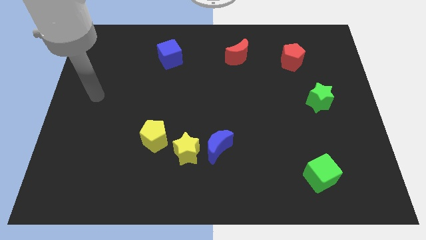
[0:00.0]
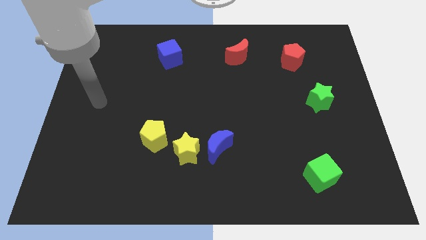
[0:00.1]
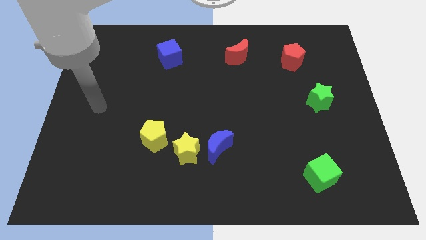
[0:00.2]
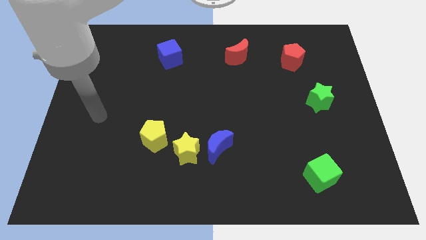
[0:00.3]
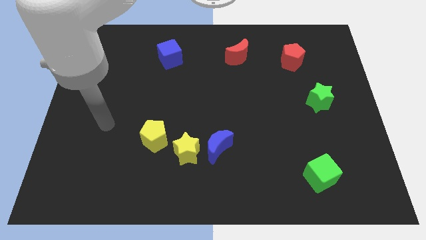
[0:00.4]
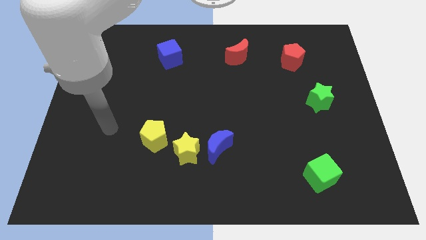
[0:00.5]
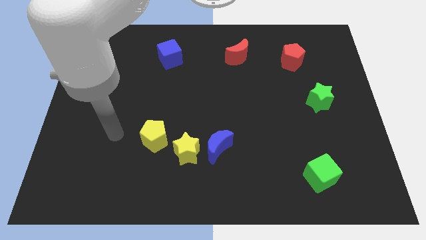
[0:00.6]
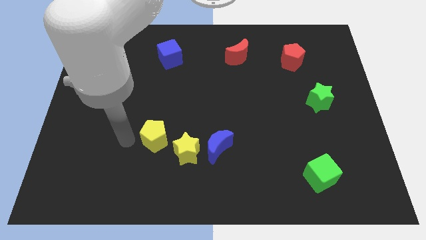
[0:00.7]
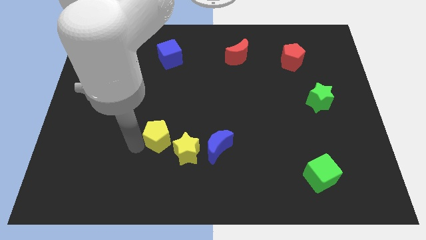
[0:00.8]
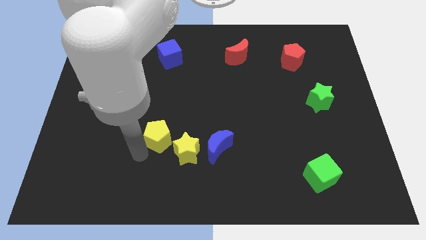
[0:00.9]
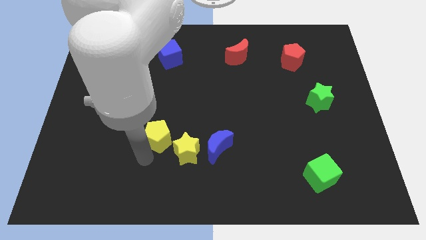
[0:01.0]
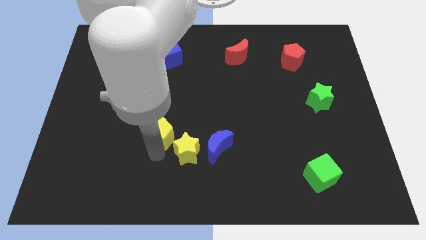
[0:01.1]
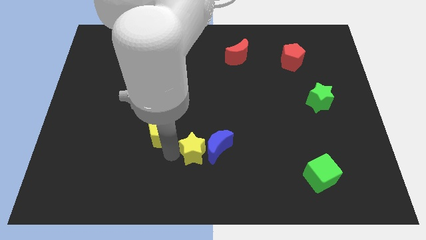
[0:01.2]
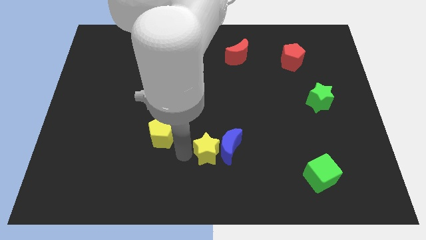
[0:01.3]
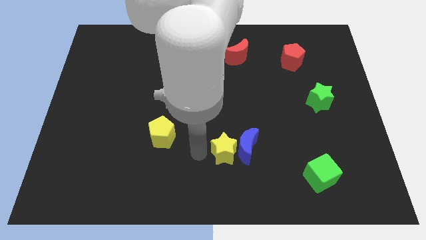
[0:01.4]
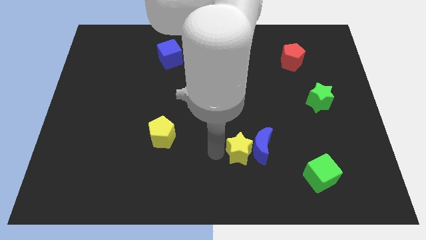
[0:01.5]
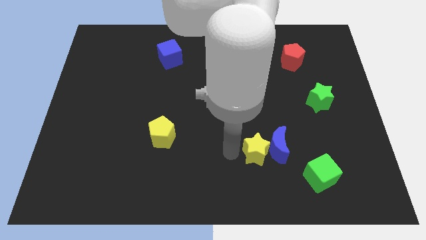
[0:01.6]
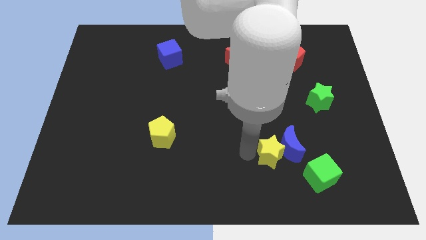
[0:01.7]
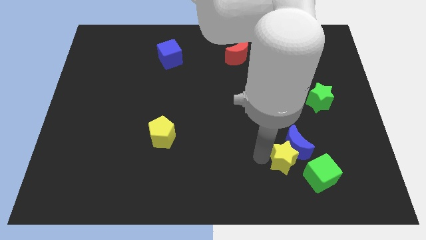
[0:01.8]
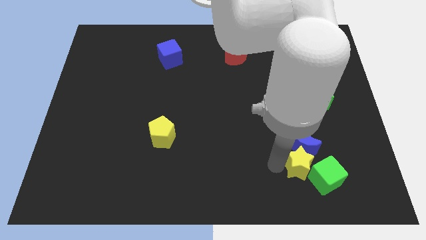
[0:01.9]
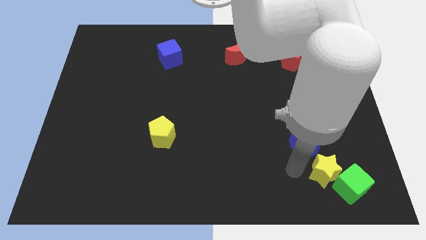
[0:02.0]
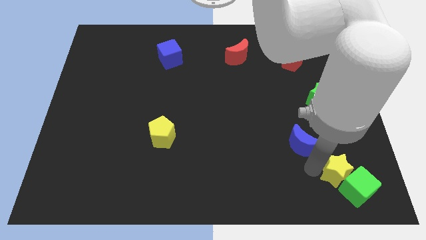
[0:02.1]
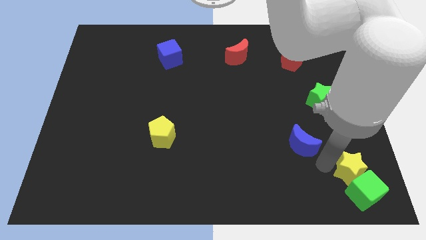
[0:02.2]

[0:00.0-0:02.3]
move the blue moon away from the yellow star

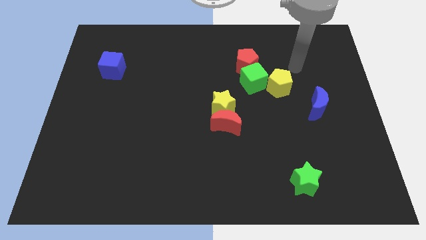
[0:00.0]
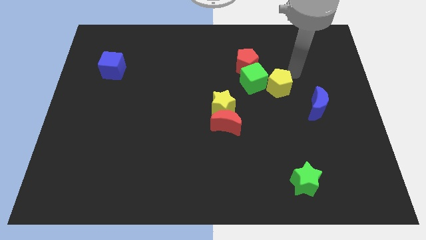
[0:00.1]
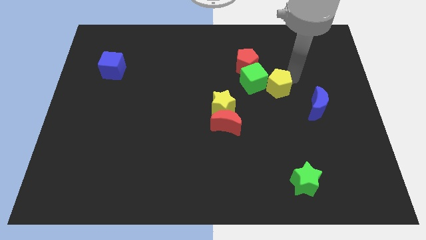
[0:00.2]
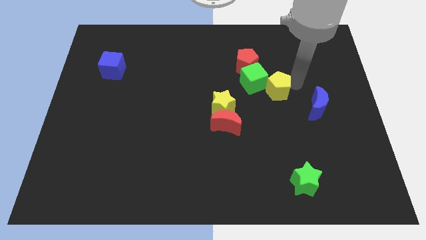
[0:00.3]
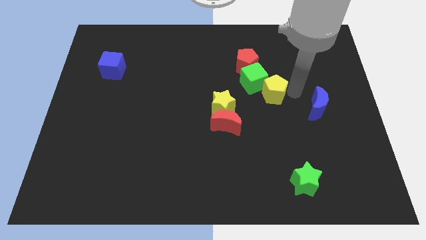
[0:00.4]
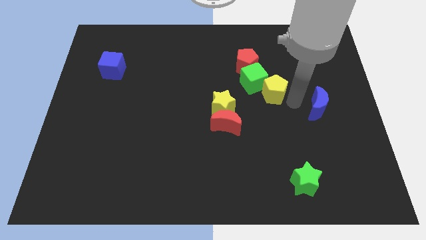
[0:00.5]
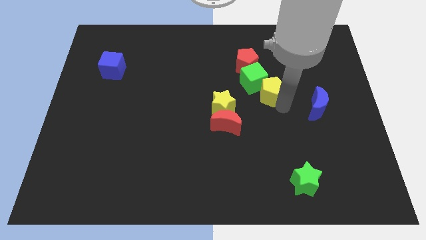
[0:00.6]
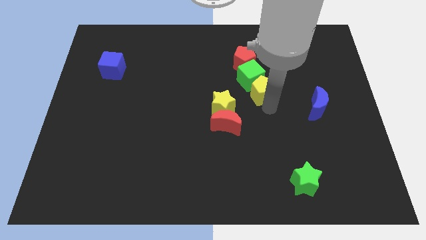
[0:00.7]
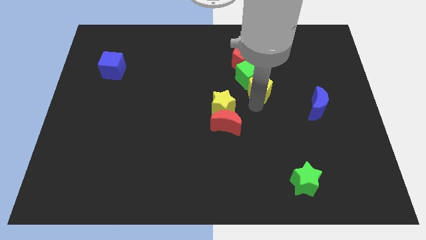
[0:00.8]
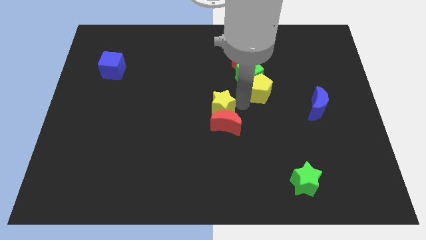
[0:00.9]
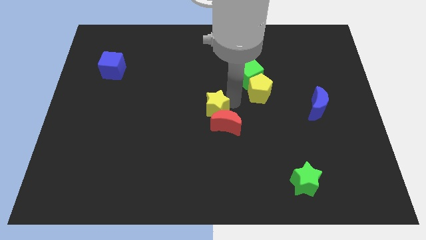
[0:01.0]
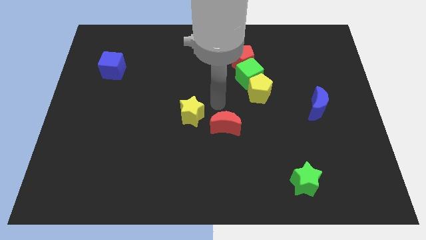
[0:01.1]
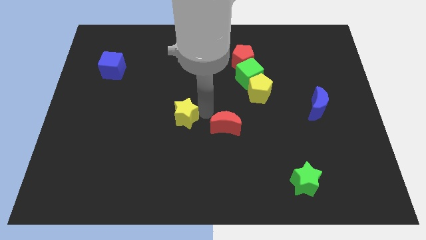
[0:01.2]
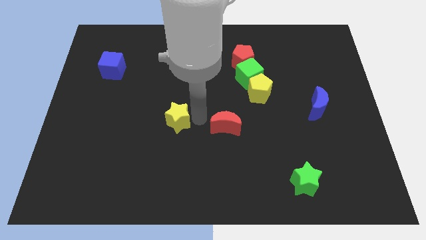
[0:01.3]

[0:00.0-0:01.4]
pull the red moon apart from the yellow star

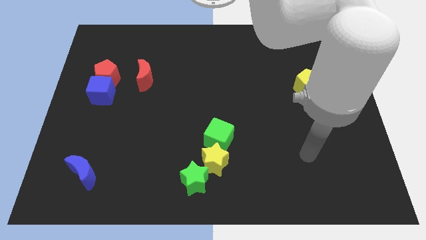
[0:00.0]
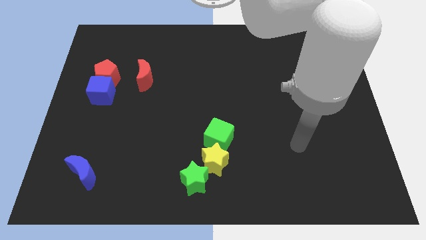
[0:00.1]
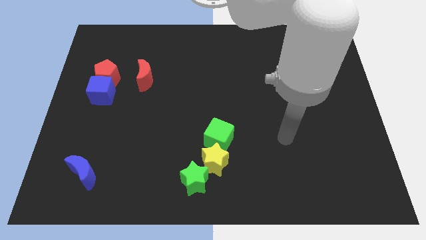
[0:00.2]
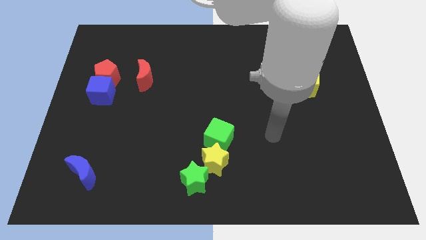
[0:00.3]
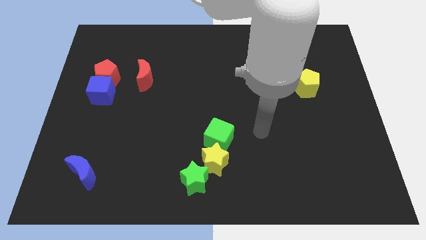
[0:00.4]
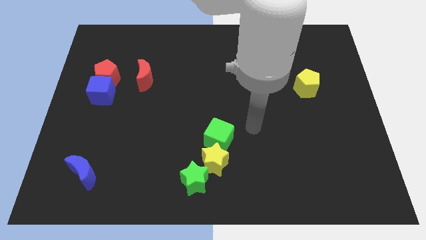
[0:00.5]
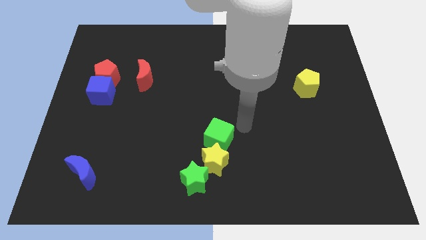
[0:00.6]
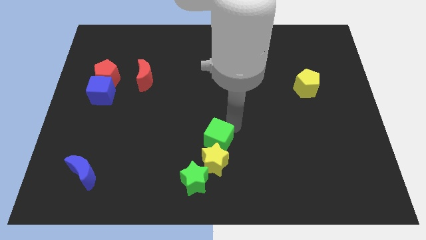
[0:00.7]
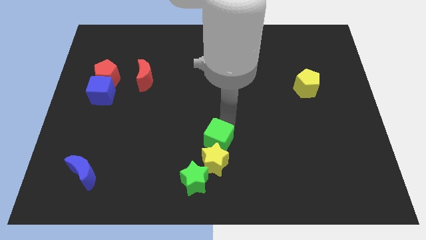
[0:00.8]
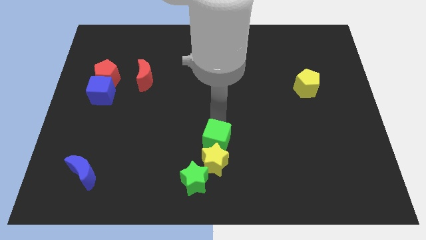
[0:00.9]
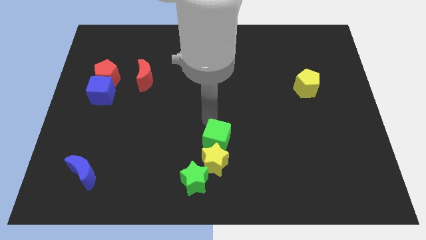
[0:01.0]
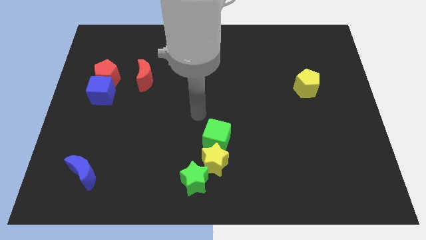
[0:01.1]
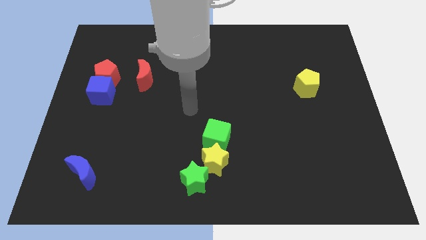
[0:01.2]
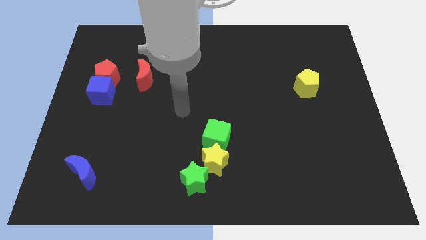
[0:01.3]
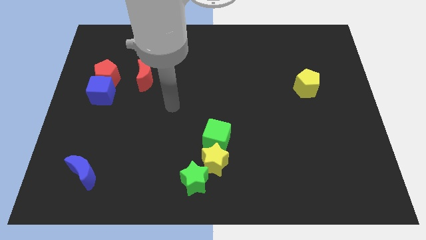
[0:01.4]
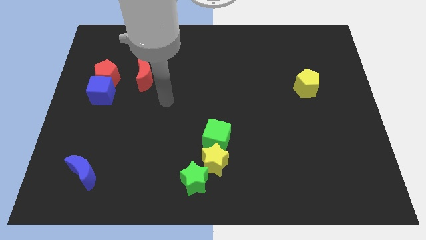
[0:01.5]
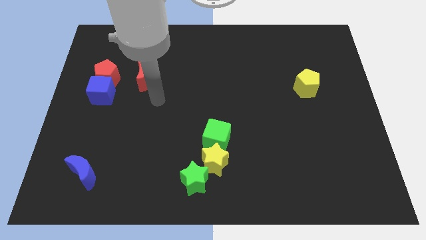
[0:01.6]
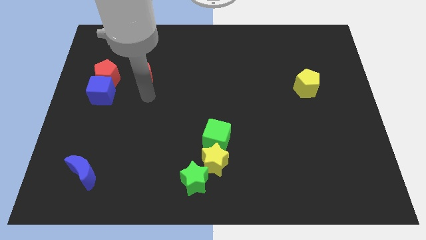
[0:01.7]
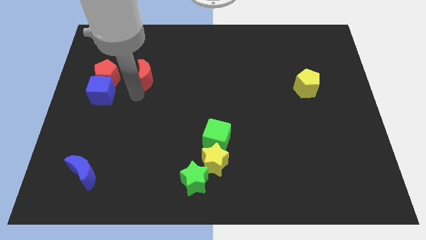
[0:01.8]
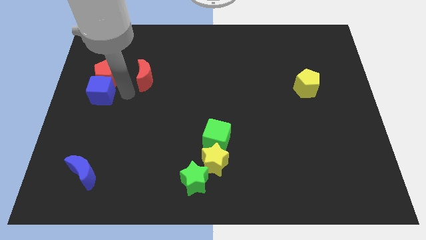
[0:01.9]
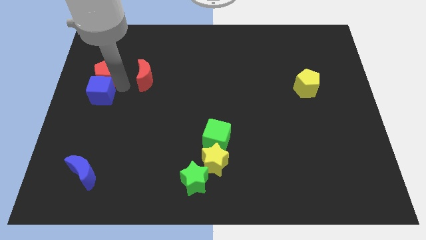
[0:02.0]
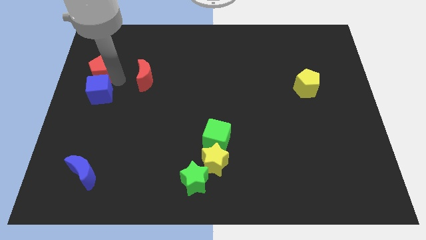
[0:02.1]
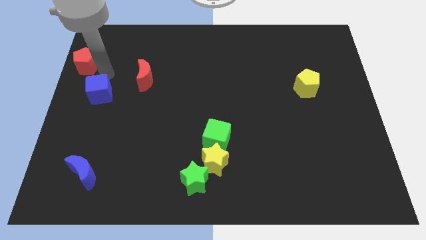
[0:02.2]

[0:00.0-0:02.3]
separate the blue cube from the red pentagon

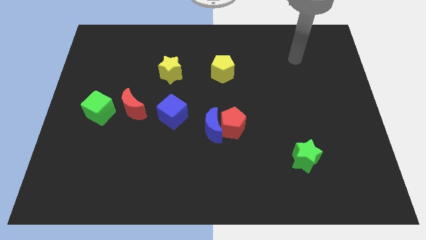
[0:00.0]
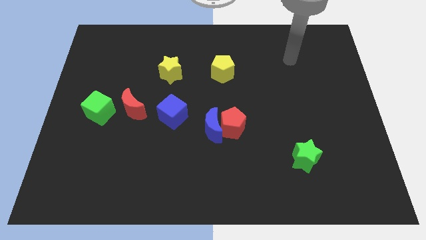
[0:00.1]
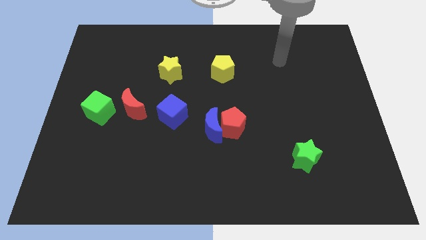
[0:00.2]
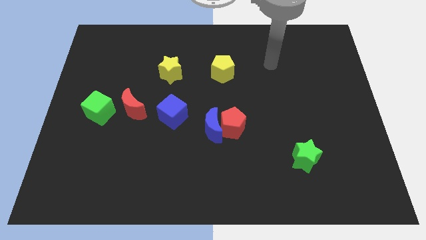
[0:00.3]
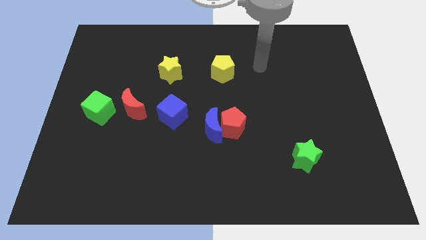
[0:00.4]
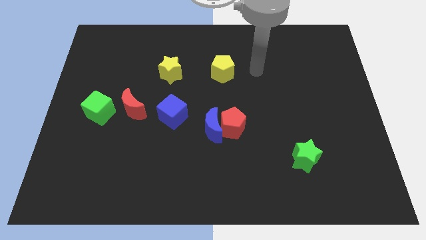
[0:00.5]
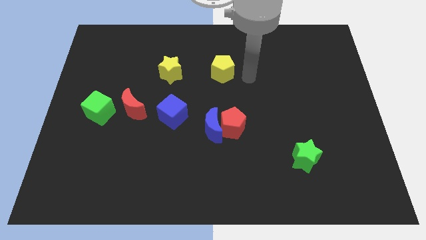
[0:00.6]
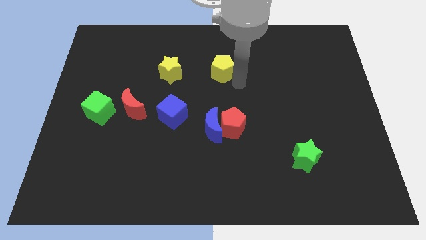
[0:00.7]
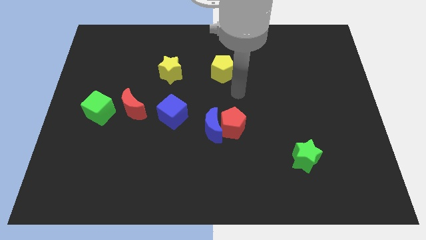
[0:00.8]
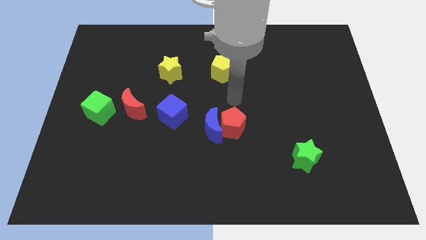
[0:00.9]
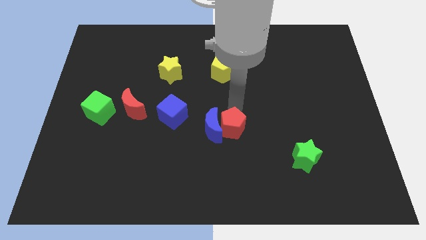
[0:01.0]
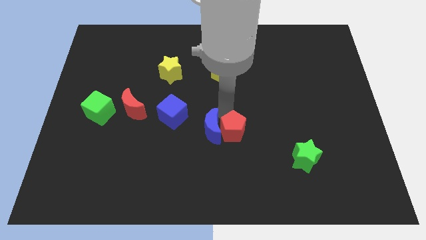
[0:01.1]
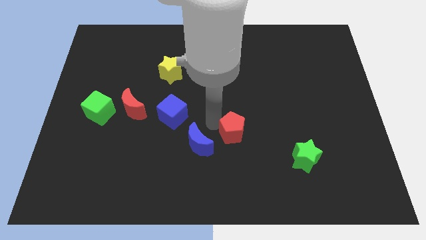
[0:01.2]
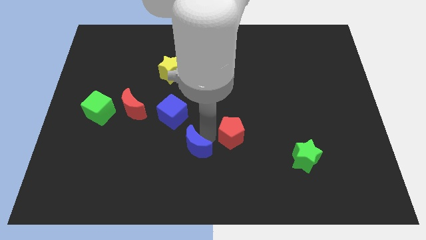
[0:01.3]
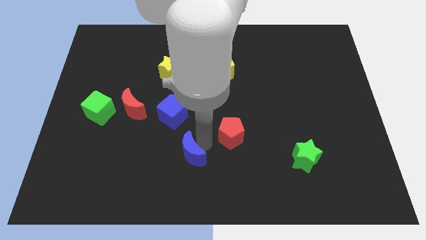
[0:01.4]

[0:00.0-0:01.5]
move the red pentagon away from the blue moon

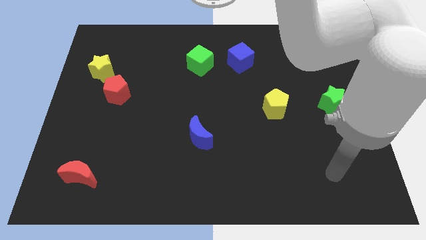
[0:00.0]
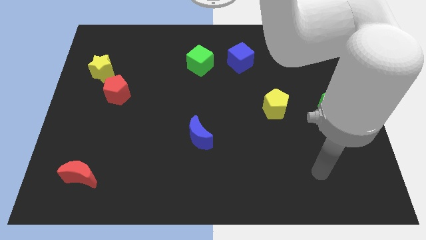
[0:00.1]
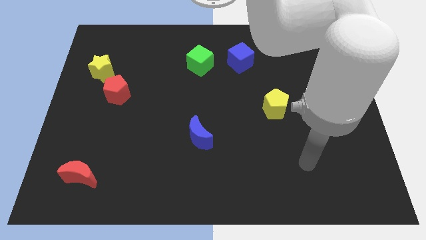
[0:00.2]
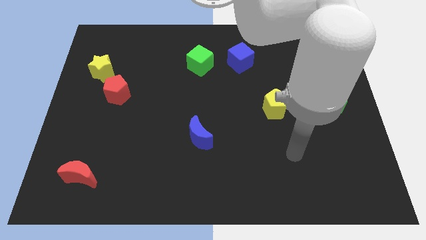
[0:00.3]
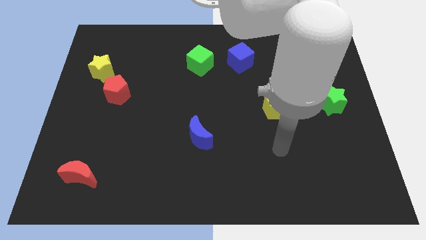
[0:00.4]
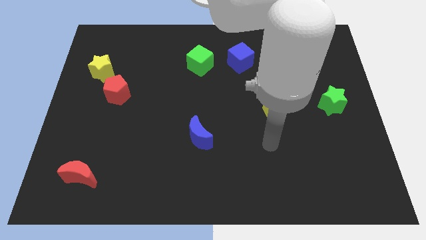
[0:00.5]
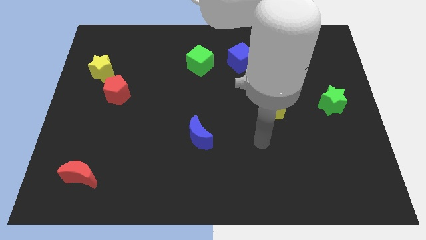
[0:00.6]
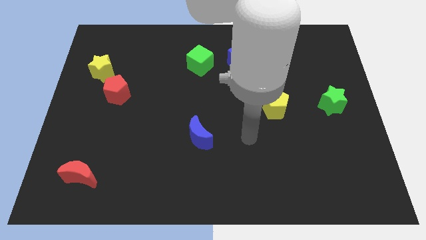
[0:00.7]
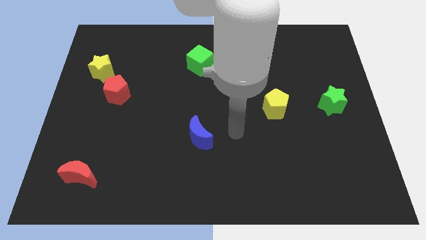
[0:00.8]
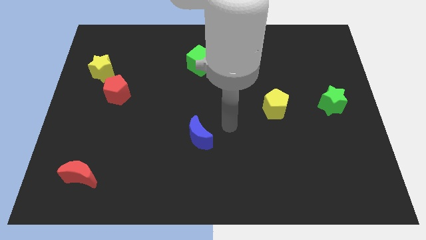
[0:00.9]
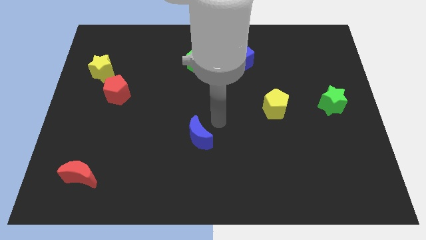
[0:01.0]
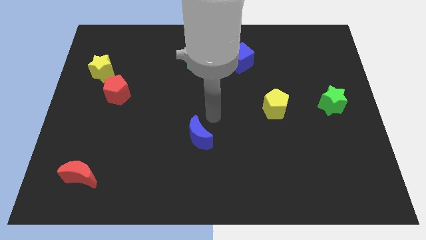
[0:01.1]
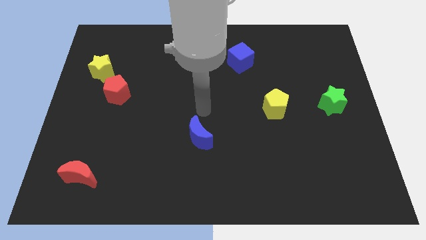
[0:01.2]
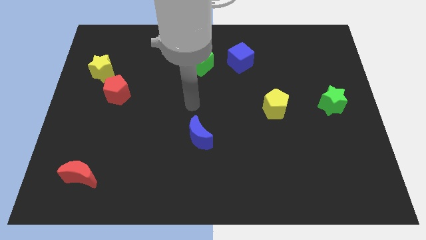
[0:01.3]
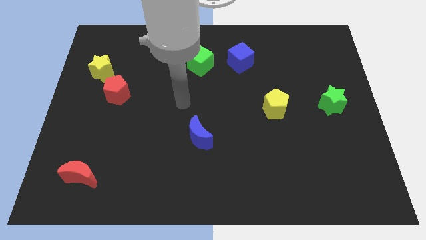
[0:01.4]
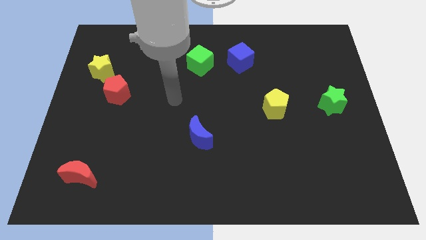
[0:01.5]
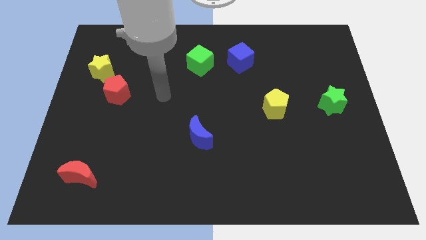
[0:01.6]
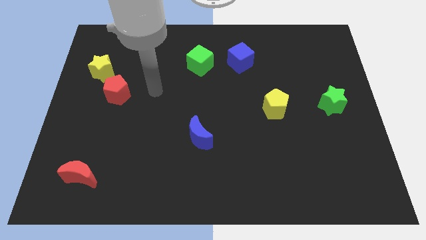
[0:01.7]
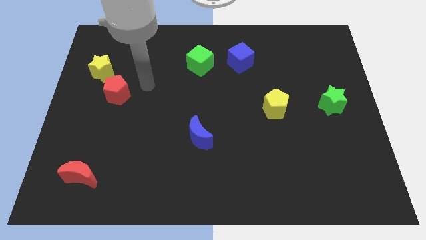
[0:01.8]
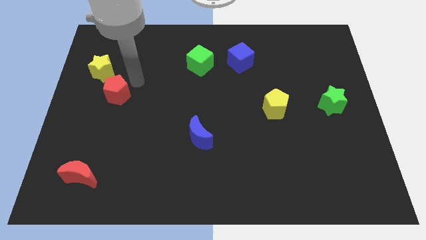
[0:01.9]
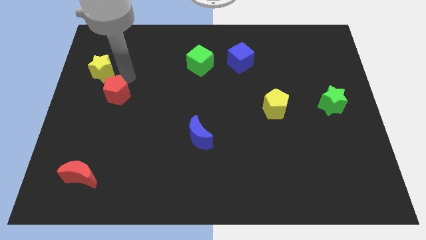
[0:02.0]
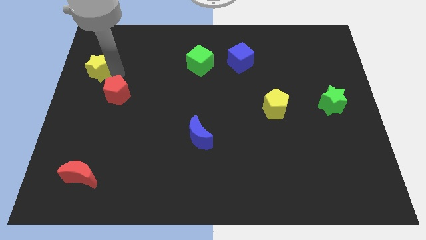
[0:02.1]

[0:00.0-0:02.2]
pull the red pentagon apart from the yellow star
